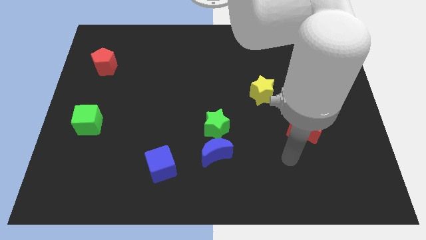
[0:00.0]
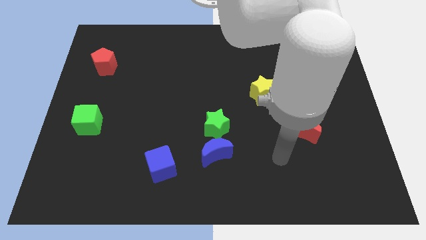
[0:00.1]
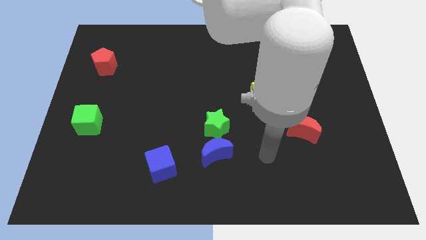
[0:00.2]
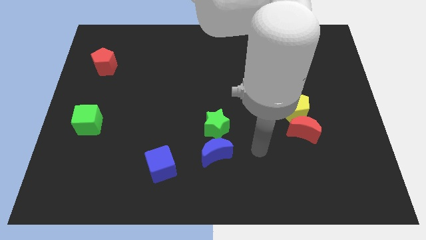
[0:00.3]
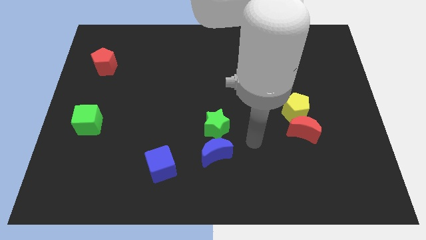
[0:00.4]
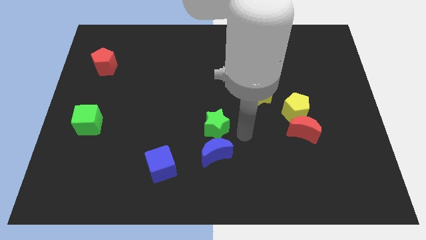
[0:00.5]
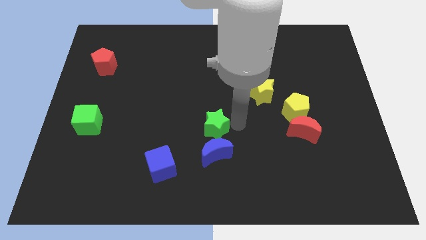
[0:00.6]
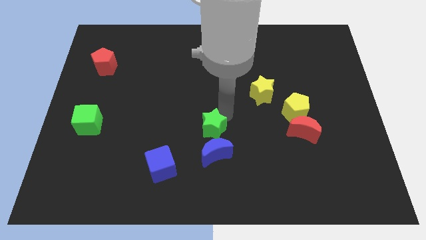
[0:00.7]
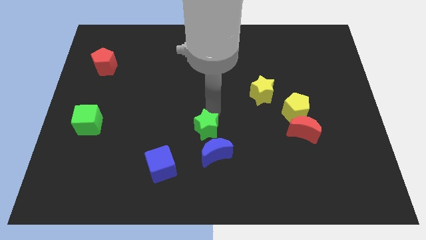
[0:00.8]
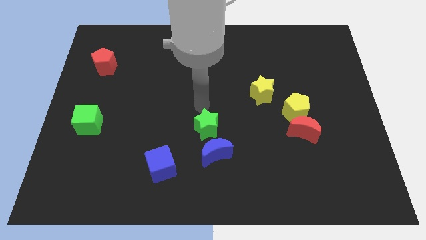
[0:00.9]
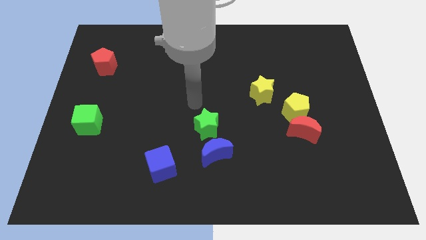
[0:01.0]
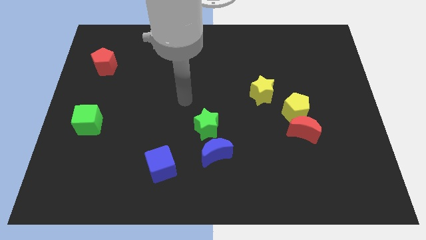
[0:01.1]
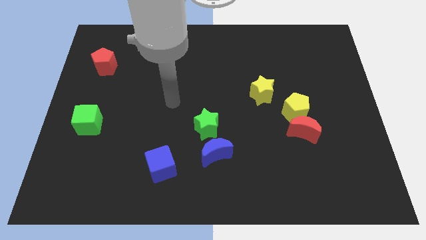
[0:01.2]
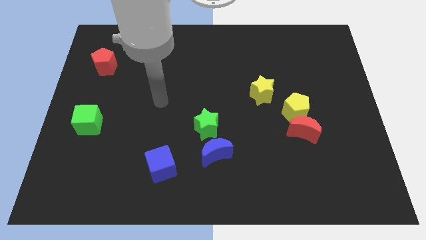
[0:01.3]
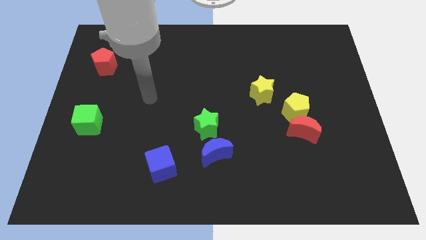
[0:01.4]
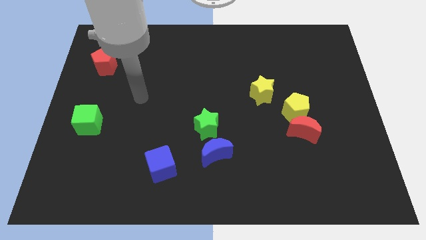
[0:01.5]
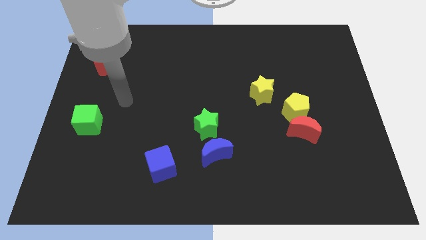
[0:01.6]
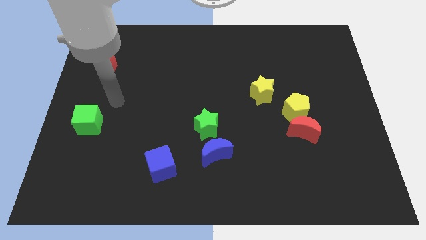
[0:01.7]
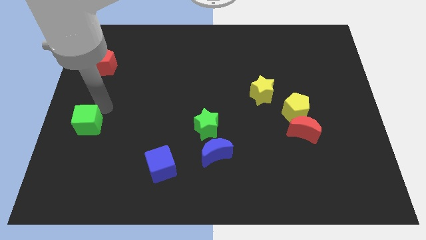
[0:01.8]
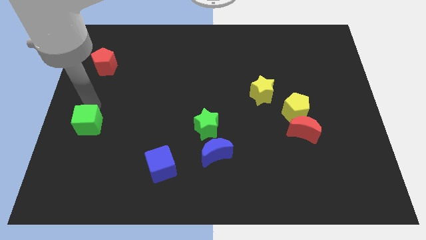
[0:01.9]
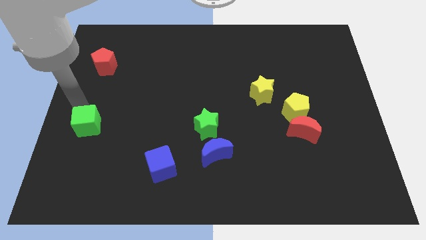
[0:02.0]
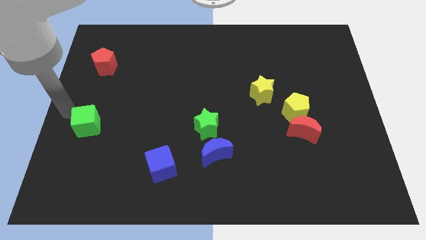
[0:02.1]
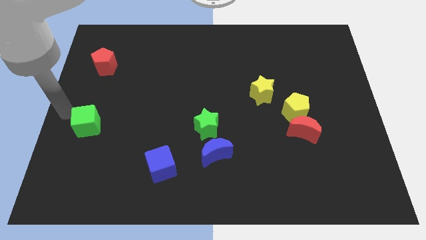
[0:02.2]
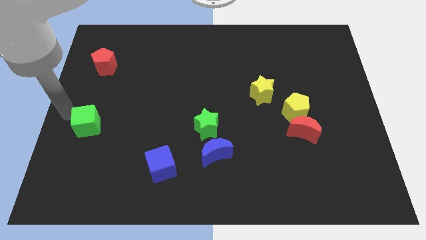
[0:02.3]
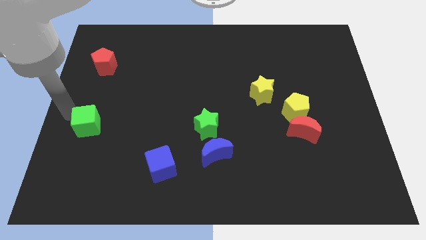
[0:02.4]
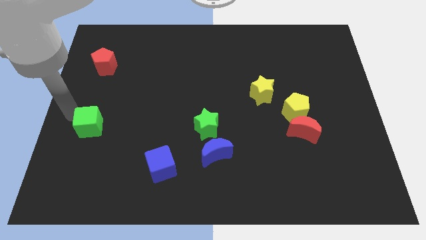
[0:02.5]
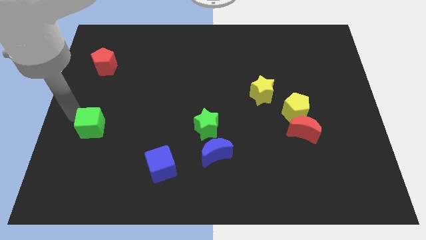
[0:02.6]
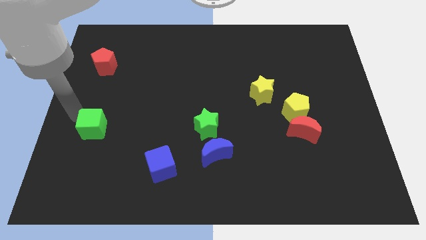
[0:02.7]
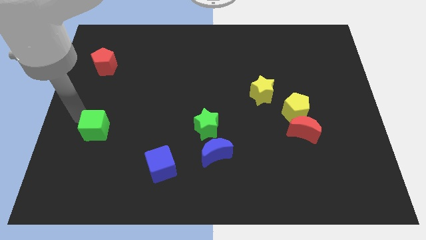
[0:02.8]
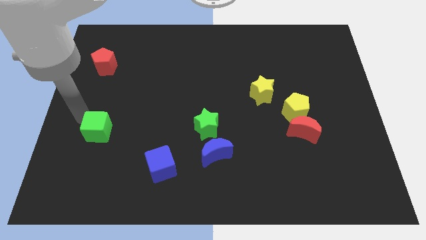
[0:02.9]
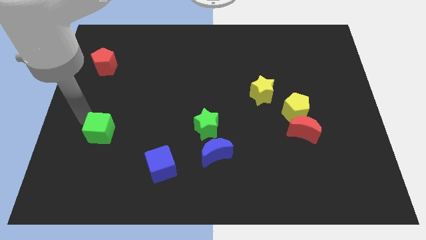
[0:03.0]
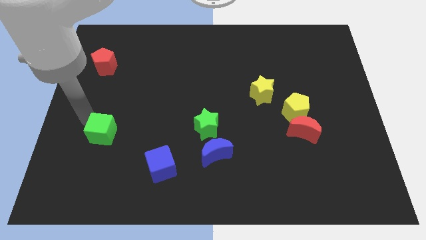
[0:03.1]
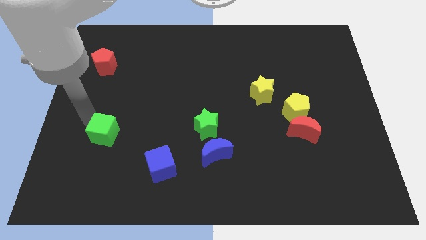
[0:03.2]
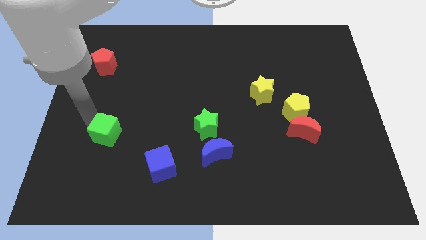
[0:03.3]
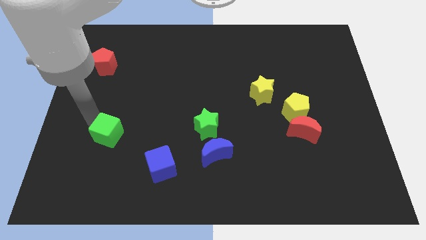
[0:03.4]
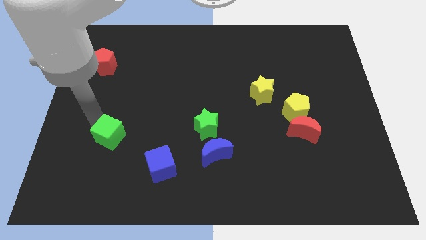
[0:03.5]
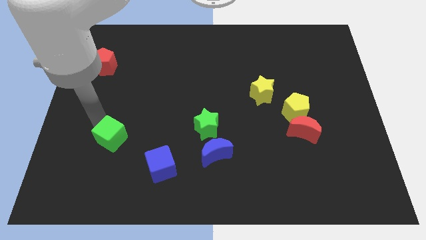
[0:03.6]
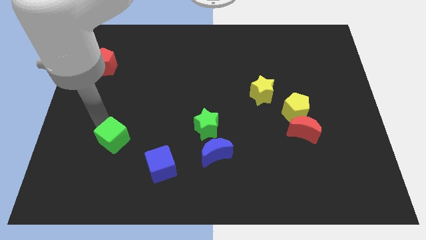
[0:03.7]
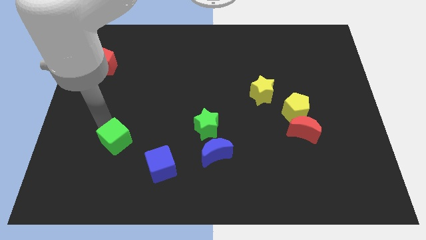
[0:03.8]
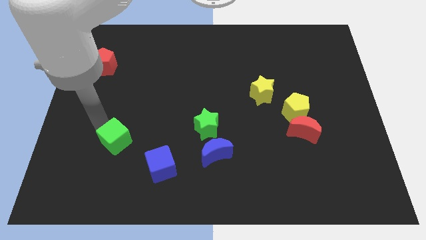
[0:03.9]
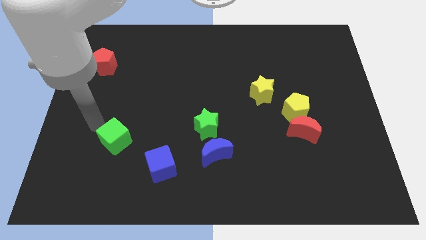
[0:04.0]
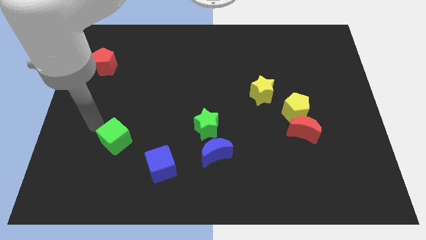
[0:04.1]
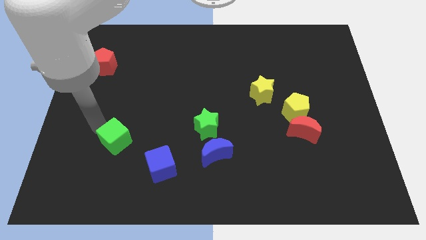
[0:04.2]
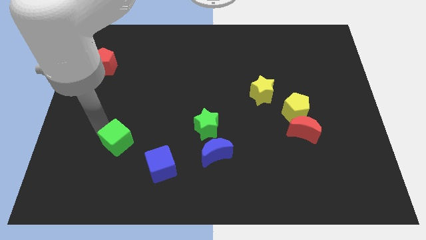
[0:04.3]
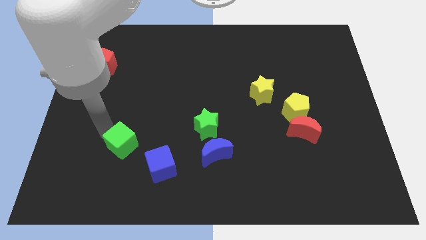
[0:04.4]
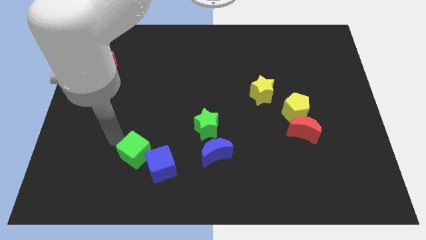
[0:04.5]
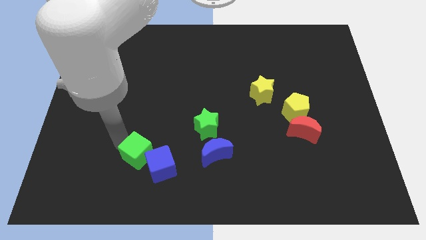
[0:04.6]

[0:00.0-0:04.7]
put the green cube next to the blue cube

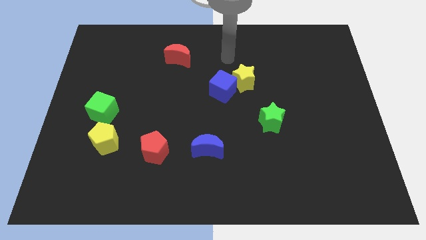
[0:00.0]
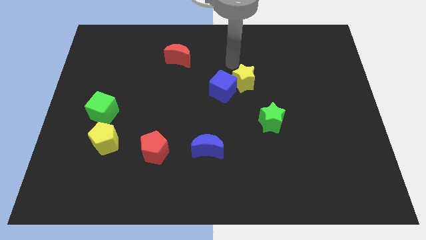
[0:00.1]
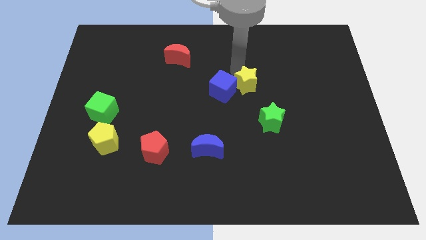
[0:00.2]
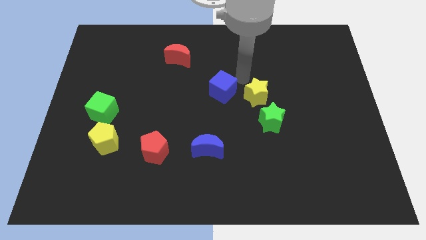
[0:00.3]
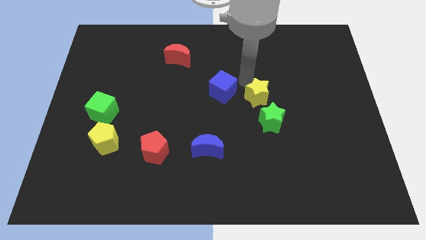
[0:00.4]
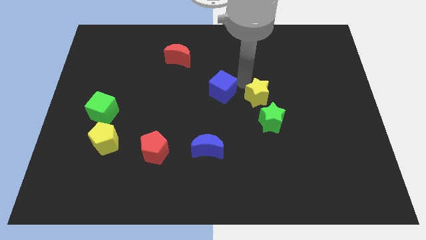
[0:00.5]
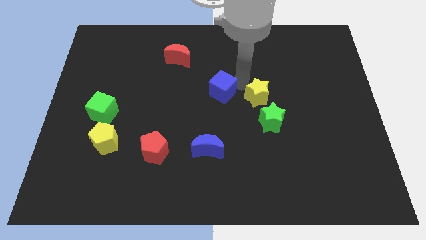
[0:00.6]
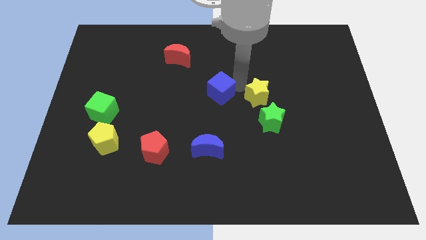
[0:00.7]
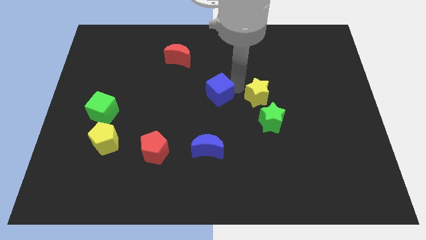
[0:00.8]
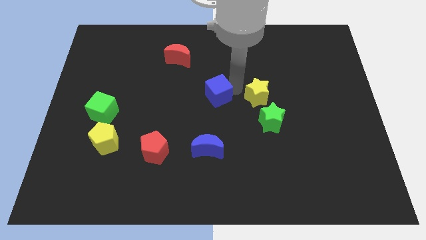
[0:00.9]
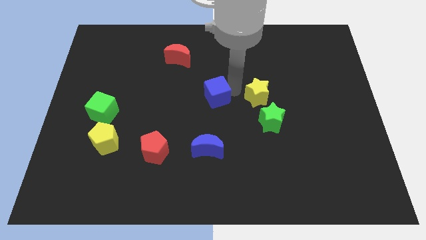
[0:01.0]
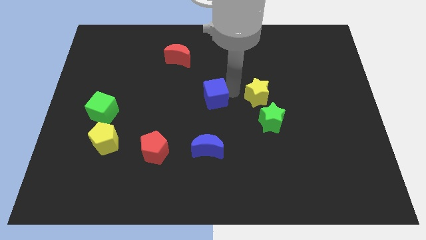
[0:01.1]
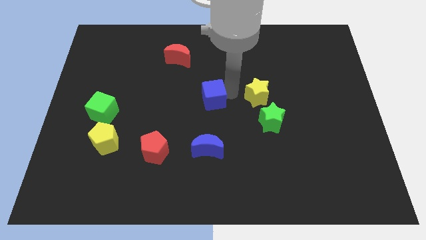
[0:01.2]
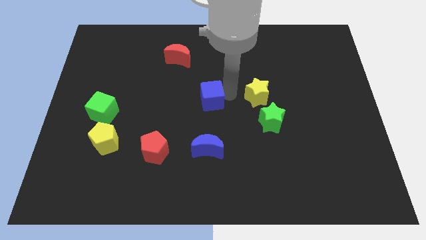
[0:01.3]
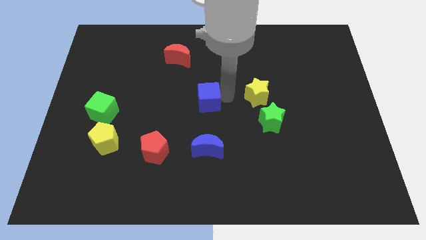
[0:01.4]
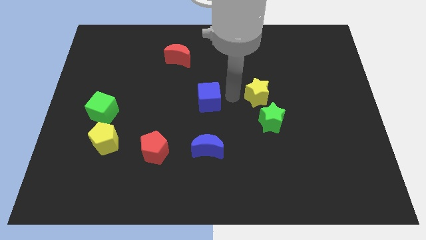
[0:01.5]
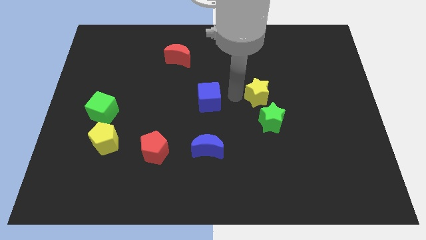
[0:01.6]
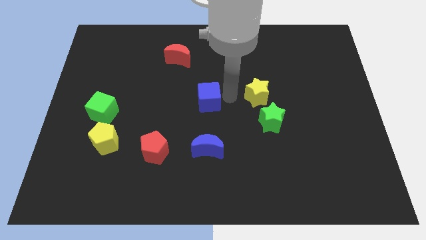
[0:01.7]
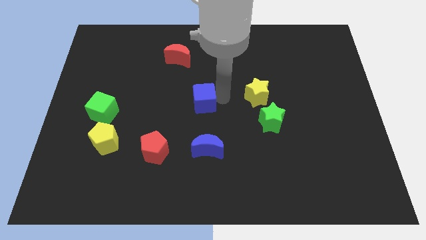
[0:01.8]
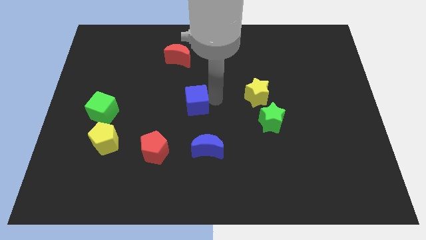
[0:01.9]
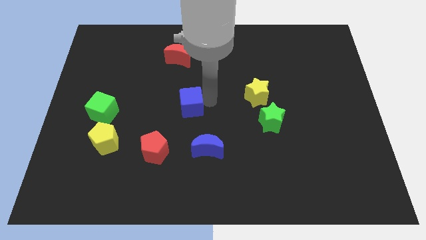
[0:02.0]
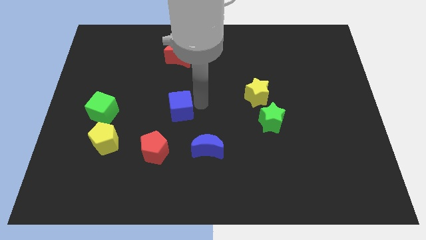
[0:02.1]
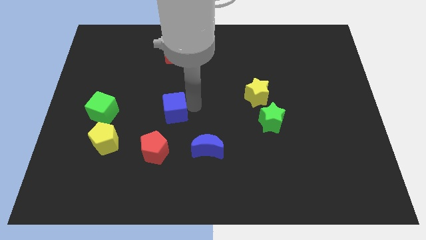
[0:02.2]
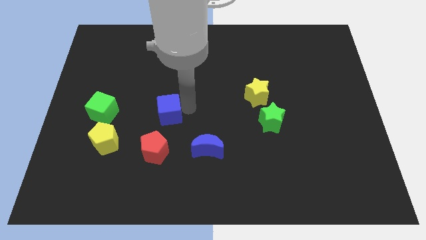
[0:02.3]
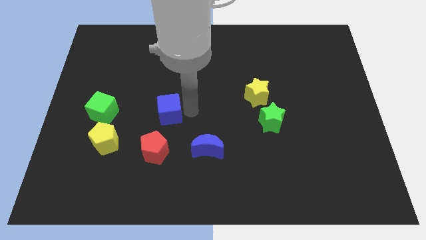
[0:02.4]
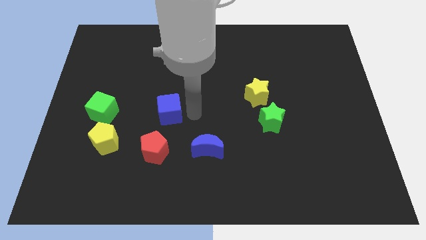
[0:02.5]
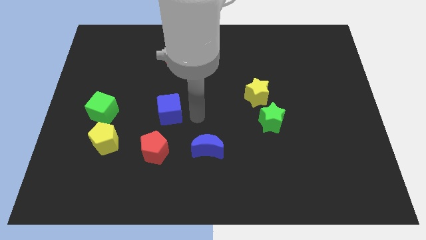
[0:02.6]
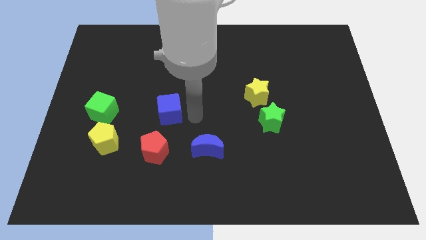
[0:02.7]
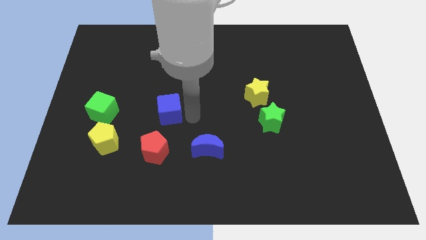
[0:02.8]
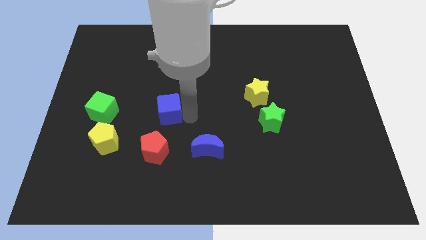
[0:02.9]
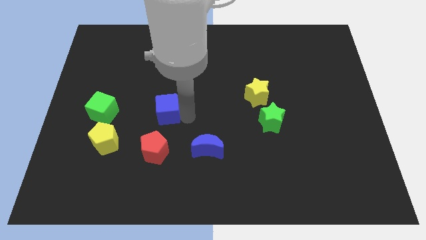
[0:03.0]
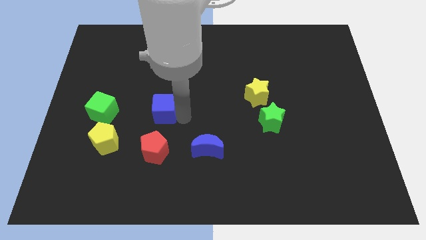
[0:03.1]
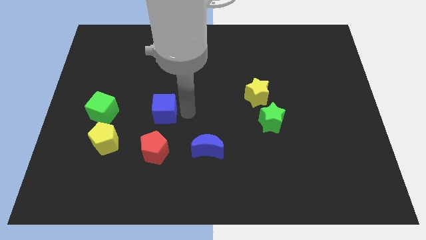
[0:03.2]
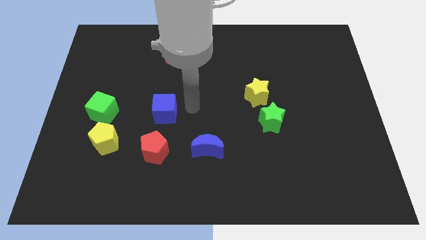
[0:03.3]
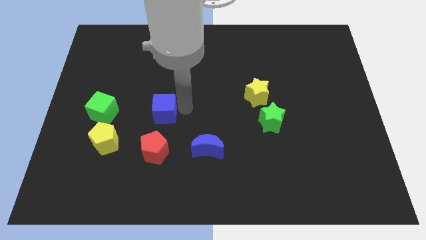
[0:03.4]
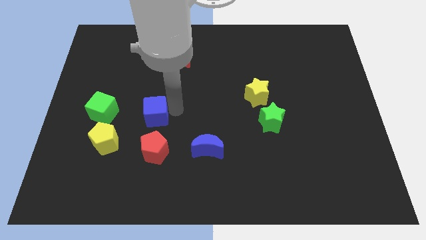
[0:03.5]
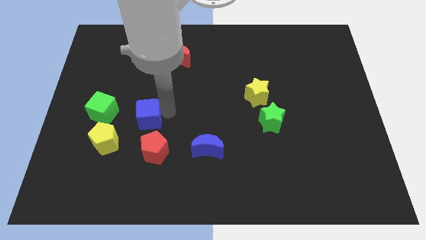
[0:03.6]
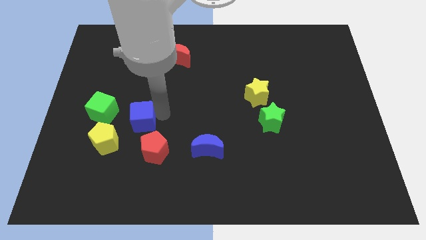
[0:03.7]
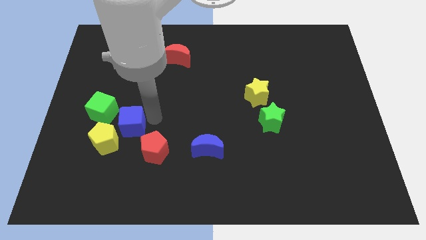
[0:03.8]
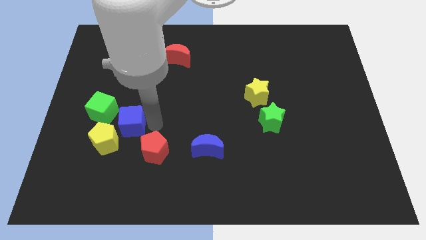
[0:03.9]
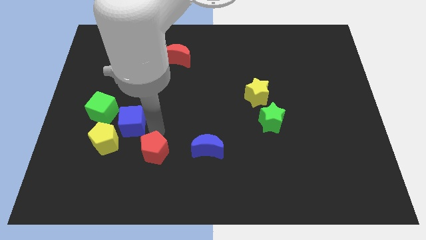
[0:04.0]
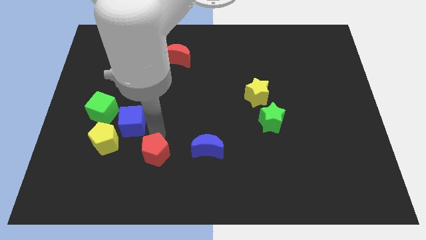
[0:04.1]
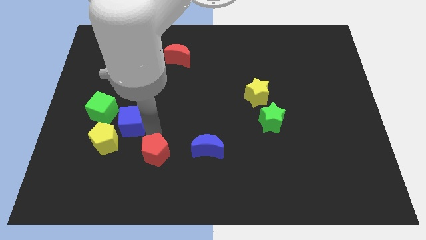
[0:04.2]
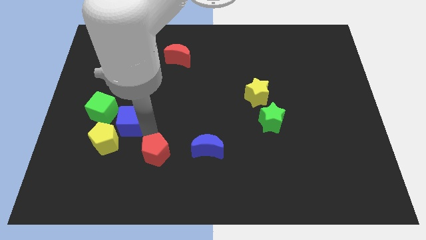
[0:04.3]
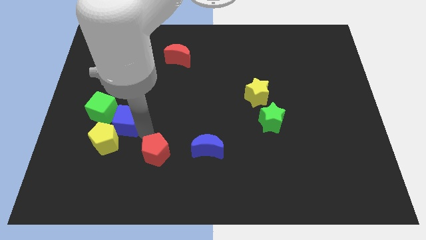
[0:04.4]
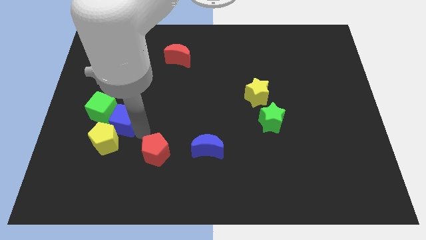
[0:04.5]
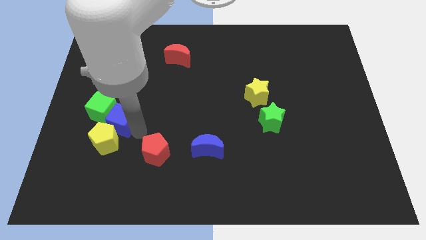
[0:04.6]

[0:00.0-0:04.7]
push the blue cube towards the green cube
